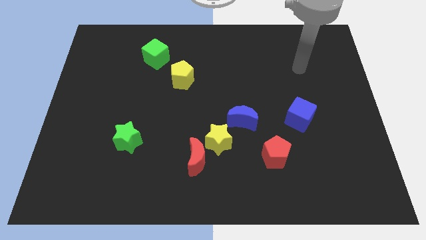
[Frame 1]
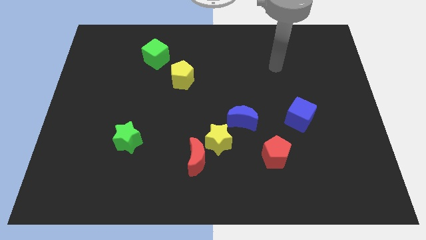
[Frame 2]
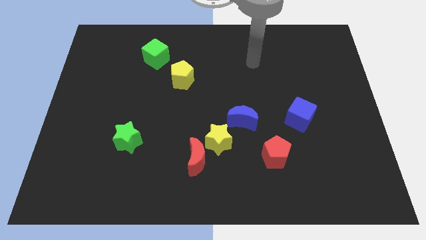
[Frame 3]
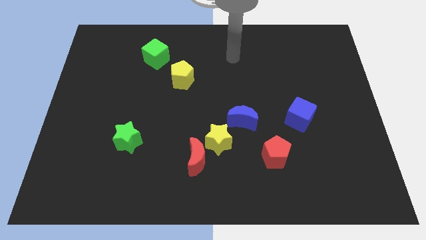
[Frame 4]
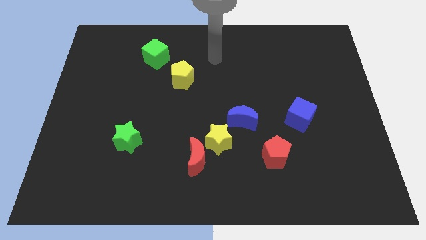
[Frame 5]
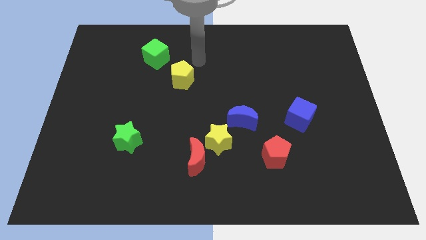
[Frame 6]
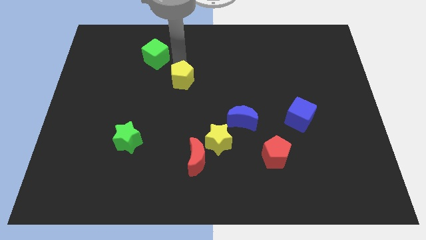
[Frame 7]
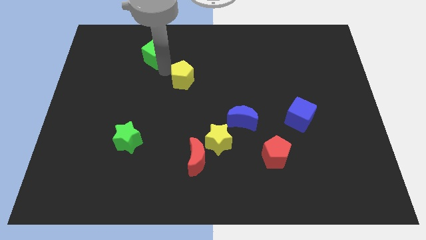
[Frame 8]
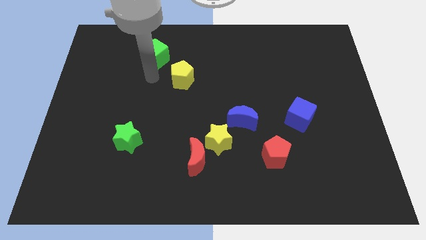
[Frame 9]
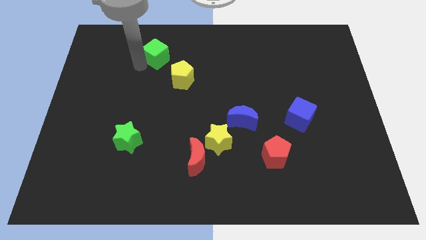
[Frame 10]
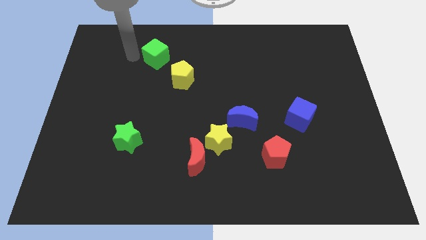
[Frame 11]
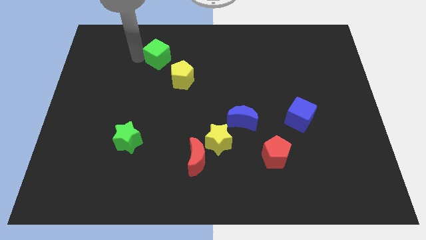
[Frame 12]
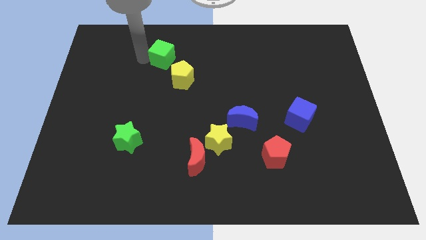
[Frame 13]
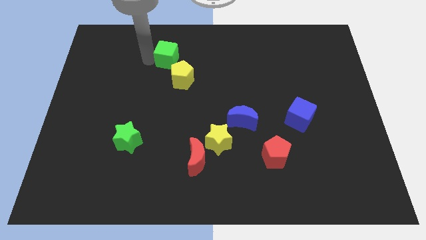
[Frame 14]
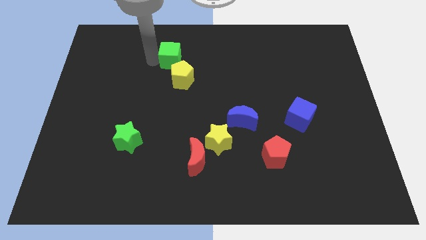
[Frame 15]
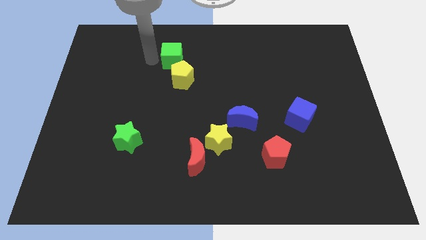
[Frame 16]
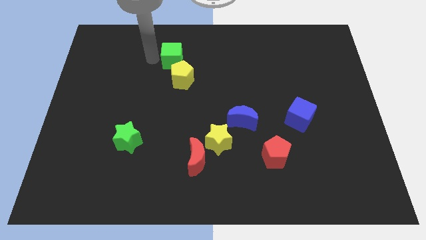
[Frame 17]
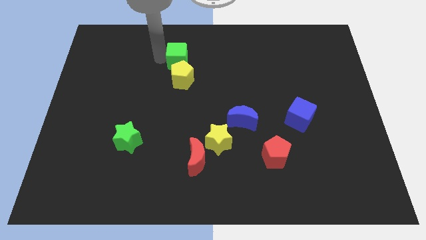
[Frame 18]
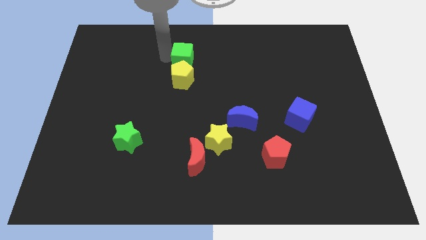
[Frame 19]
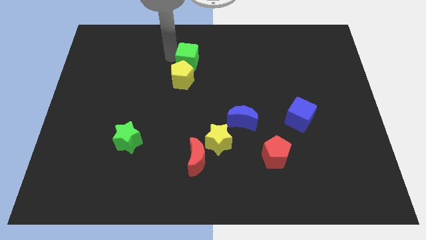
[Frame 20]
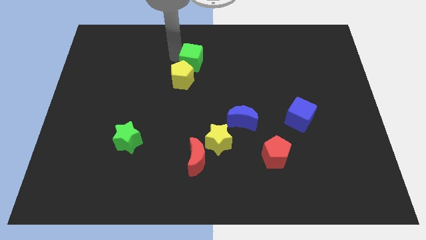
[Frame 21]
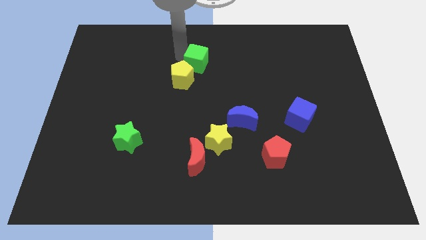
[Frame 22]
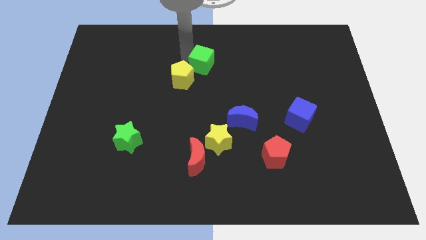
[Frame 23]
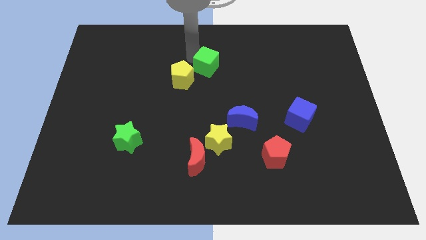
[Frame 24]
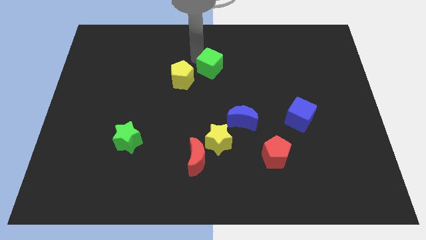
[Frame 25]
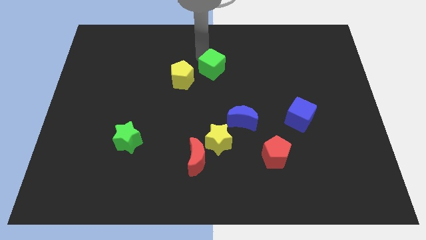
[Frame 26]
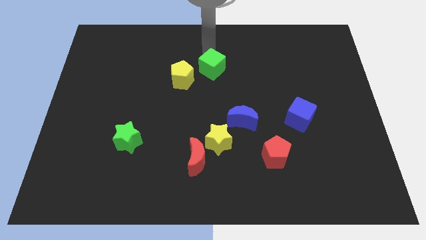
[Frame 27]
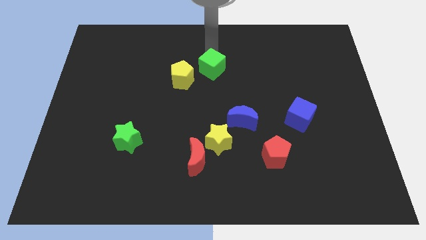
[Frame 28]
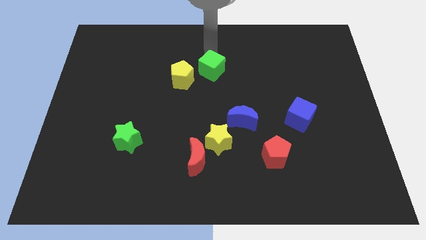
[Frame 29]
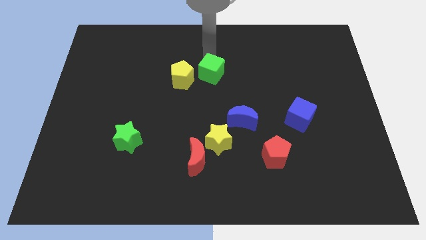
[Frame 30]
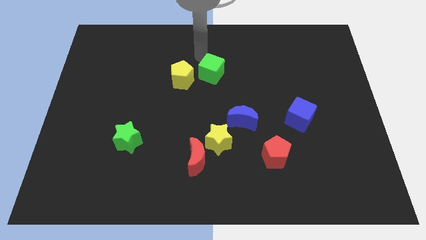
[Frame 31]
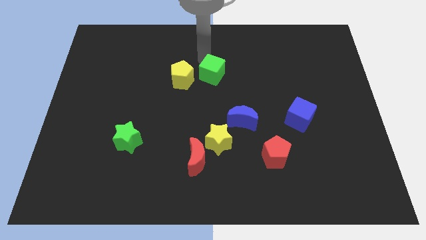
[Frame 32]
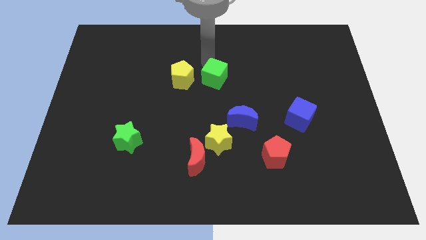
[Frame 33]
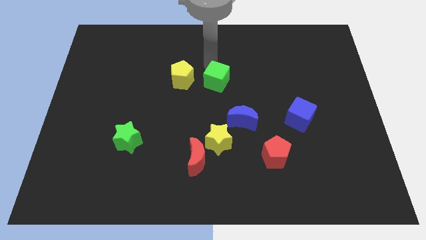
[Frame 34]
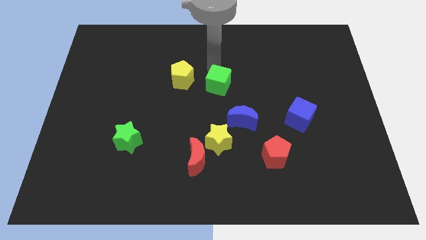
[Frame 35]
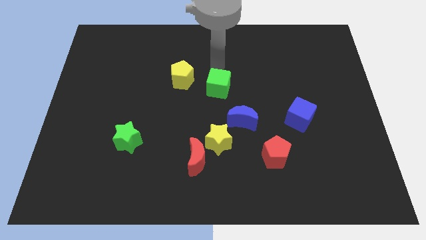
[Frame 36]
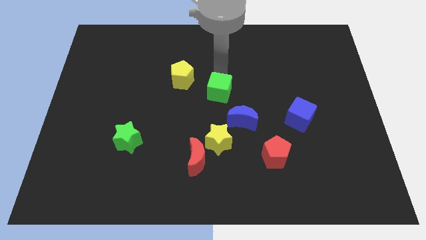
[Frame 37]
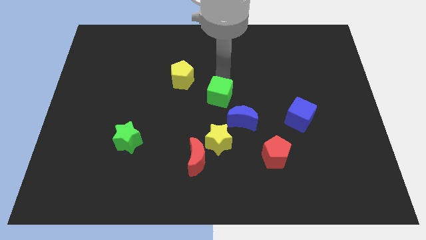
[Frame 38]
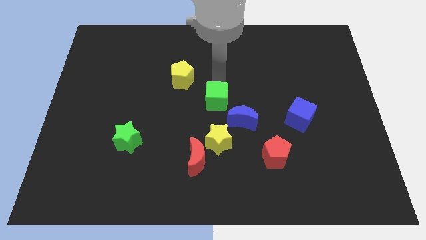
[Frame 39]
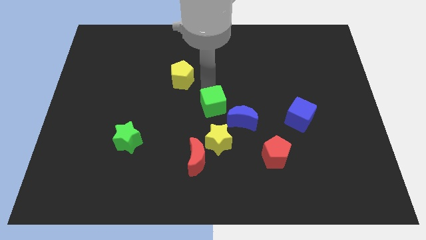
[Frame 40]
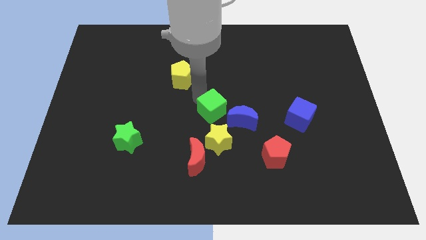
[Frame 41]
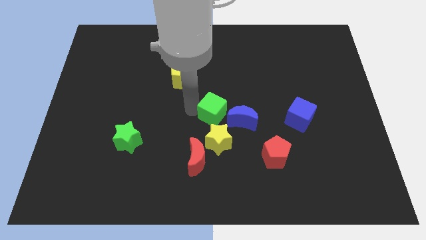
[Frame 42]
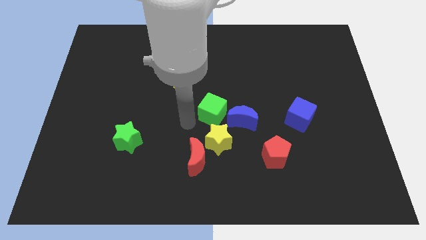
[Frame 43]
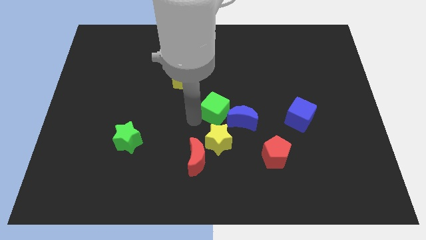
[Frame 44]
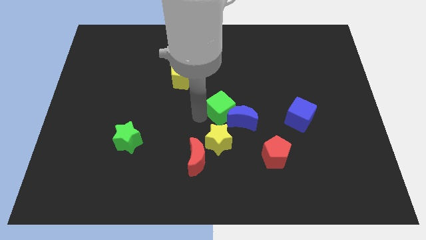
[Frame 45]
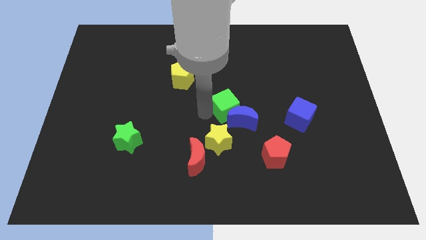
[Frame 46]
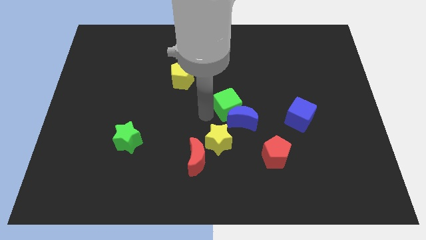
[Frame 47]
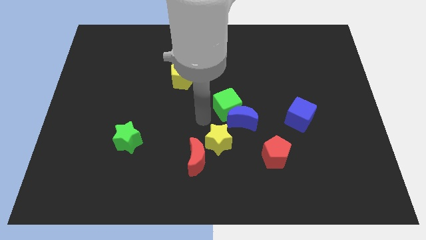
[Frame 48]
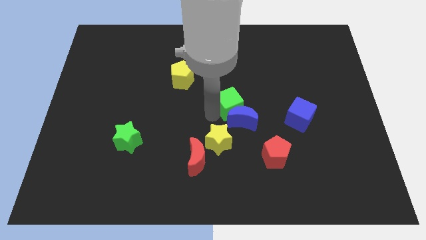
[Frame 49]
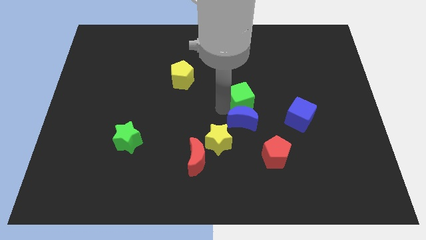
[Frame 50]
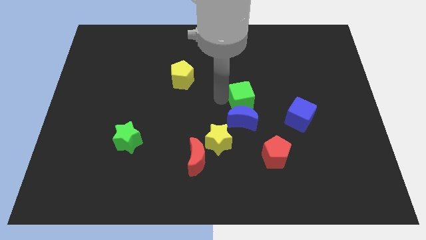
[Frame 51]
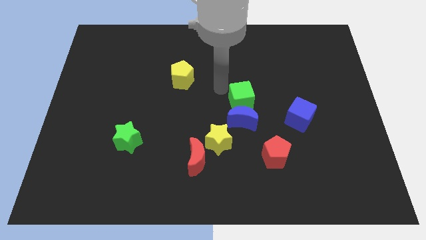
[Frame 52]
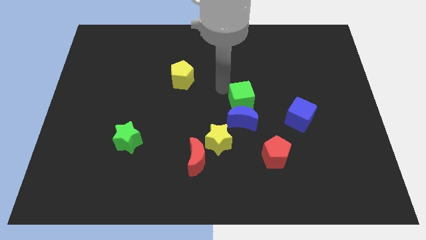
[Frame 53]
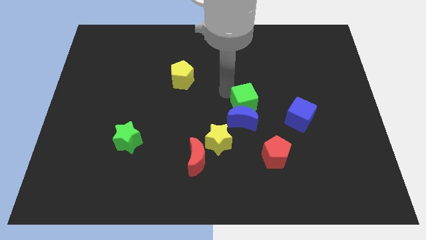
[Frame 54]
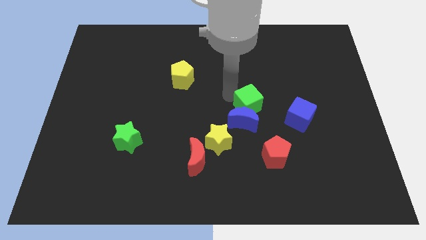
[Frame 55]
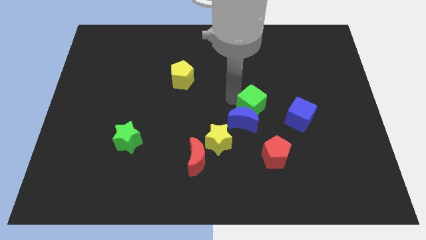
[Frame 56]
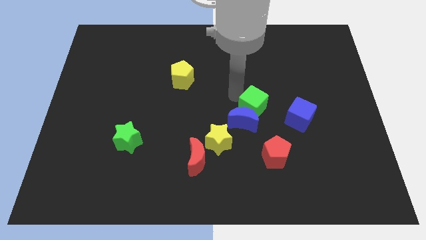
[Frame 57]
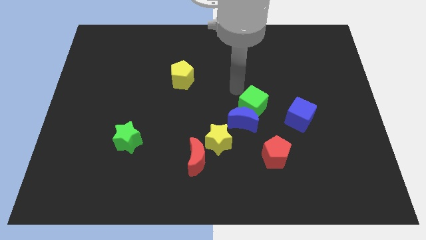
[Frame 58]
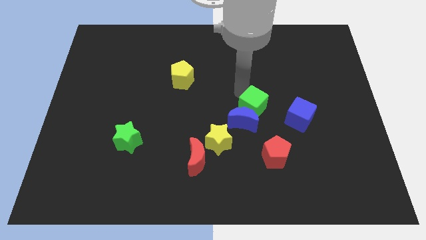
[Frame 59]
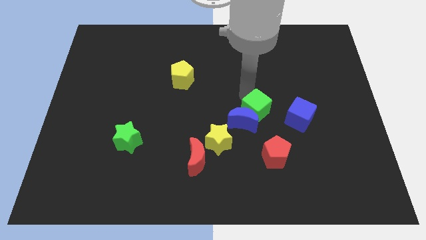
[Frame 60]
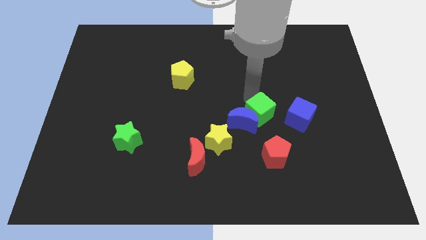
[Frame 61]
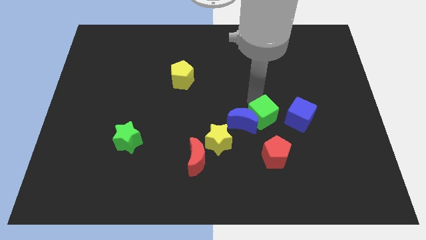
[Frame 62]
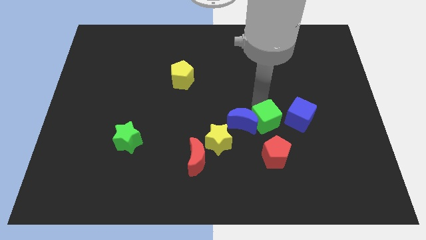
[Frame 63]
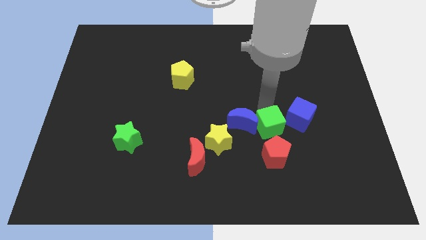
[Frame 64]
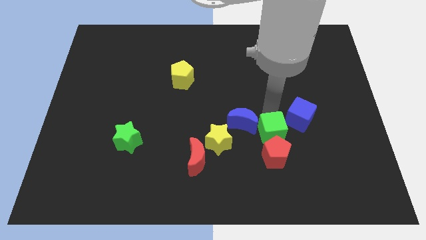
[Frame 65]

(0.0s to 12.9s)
move the green cube towards the red pentagon
